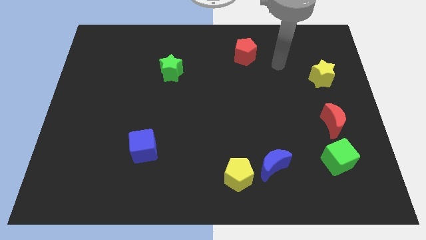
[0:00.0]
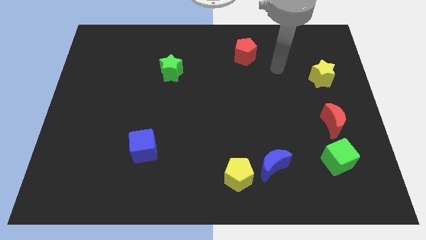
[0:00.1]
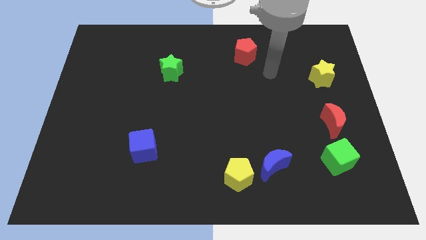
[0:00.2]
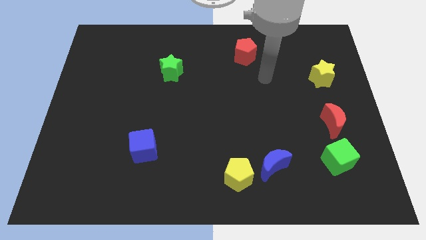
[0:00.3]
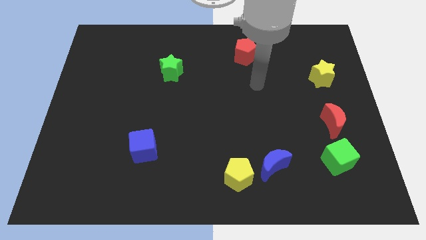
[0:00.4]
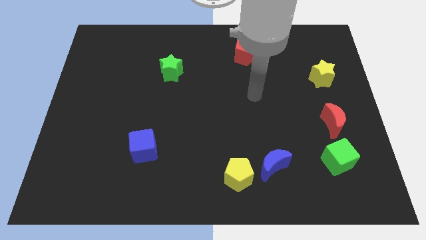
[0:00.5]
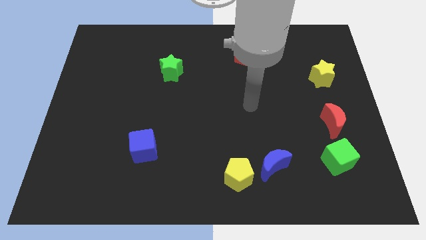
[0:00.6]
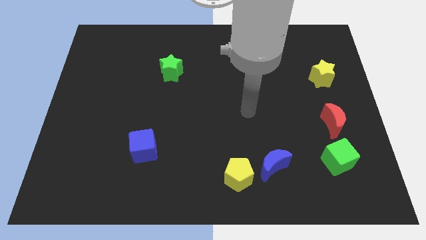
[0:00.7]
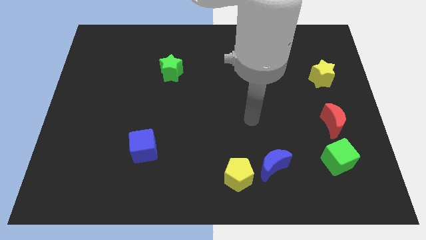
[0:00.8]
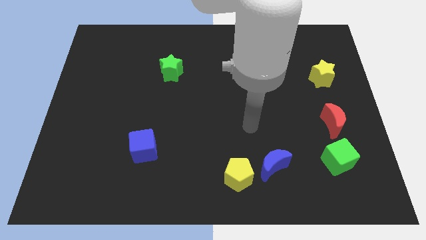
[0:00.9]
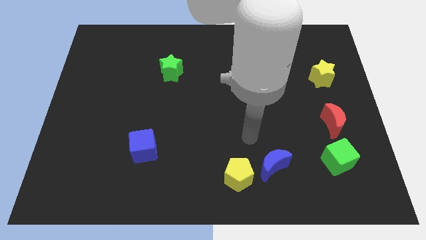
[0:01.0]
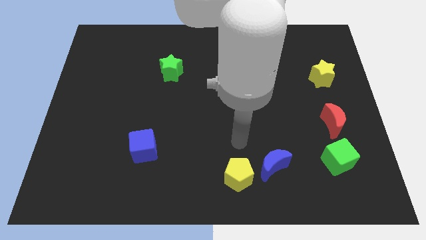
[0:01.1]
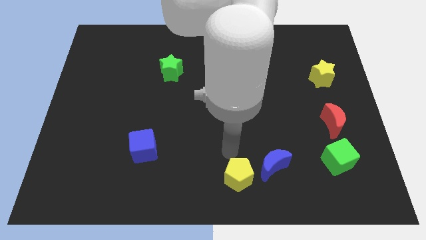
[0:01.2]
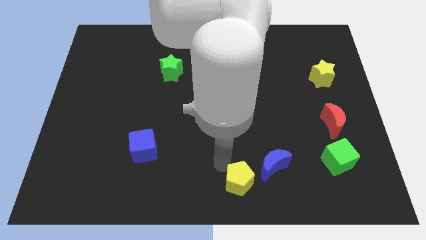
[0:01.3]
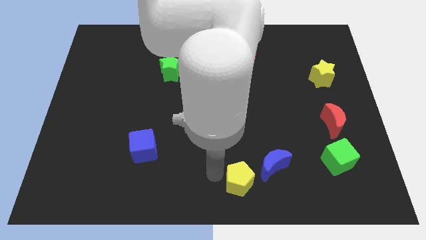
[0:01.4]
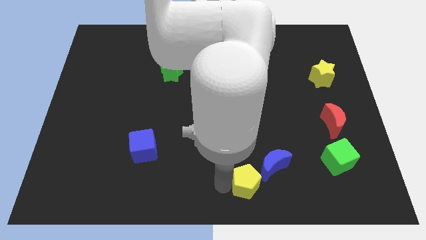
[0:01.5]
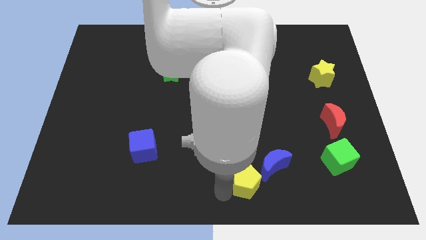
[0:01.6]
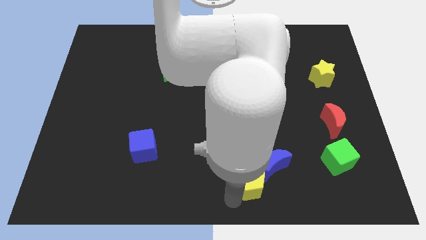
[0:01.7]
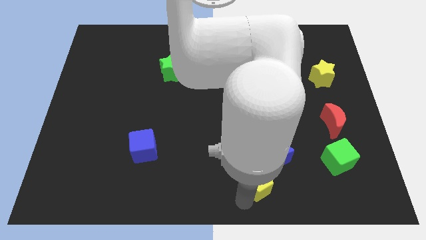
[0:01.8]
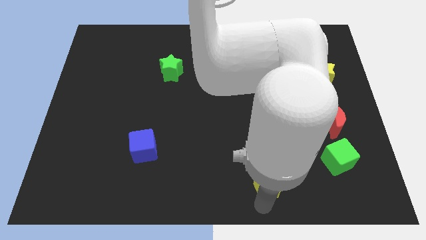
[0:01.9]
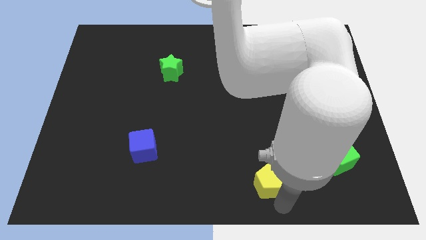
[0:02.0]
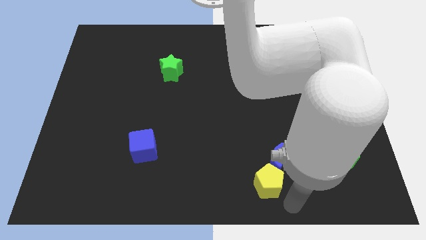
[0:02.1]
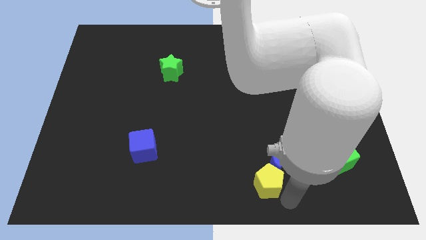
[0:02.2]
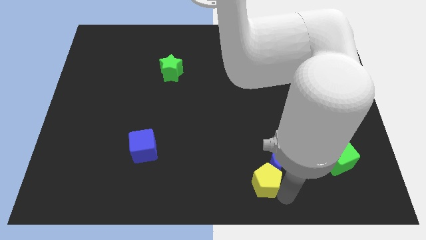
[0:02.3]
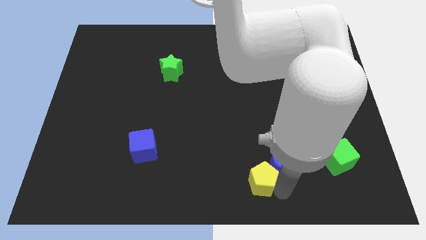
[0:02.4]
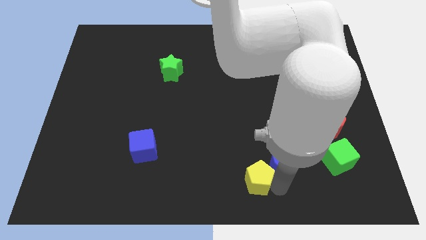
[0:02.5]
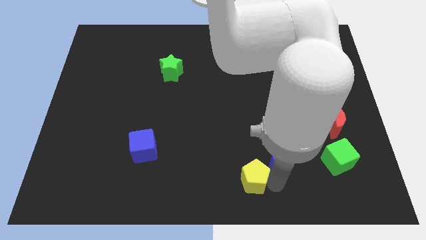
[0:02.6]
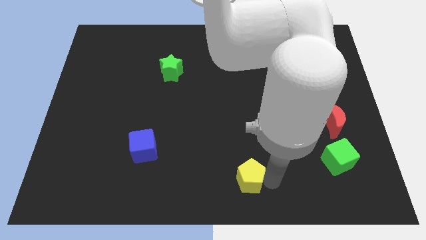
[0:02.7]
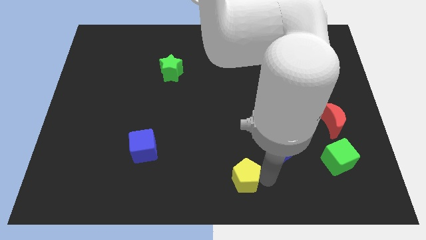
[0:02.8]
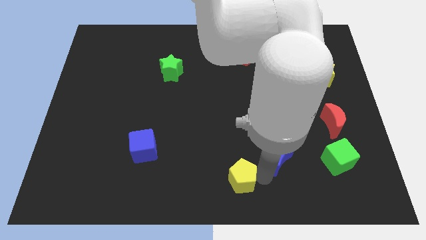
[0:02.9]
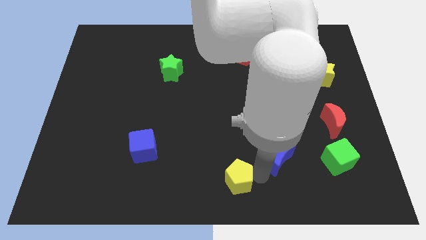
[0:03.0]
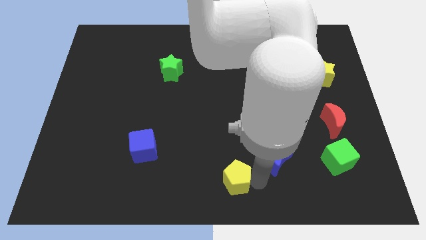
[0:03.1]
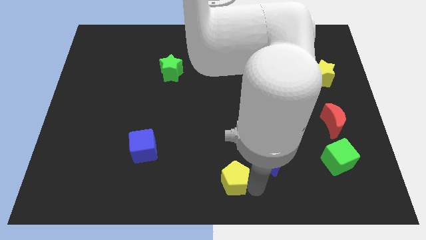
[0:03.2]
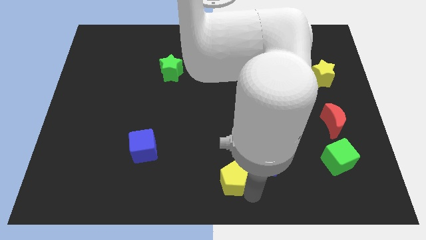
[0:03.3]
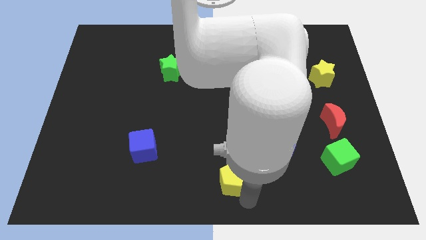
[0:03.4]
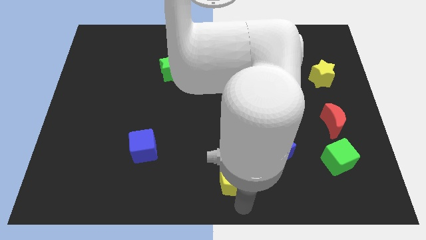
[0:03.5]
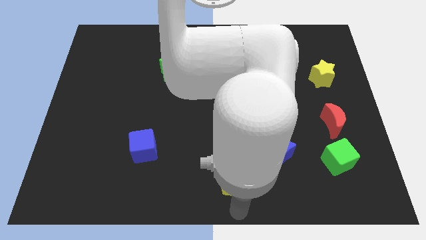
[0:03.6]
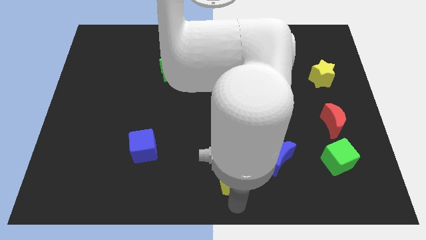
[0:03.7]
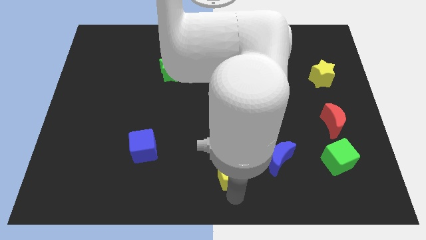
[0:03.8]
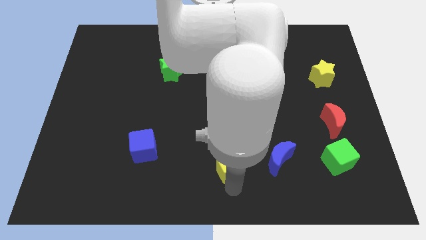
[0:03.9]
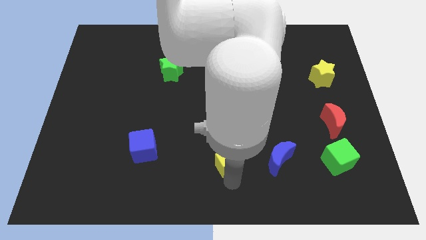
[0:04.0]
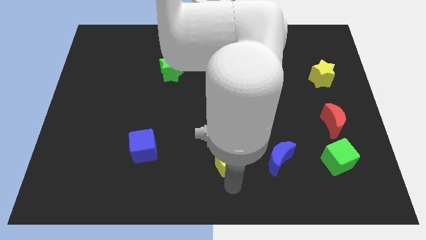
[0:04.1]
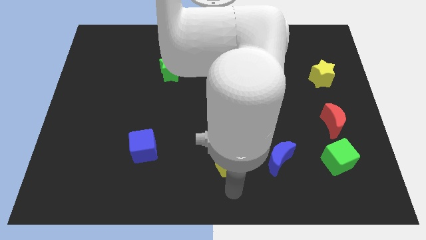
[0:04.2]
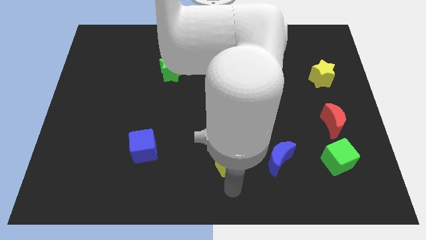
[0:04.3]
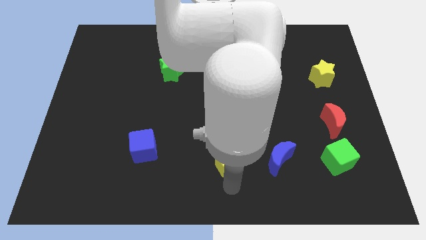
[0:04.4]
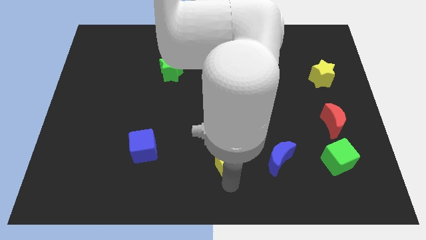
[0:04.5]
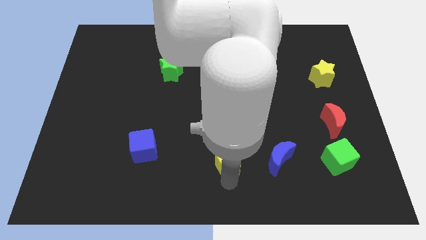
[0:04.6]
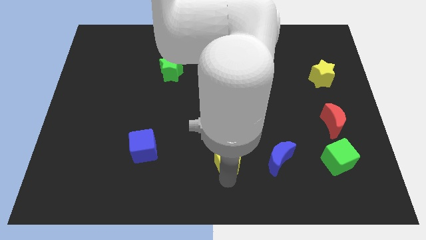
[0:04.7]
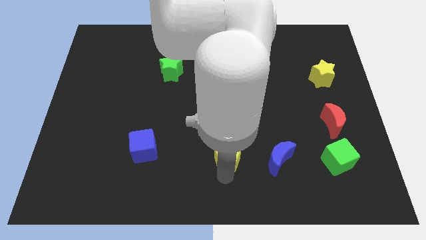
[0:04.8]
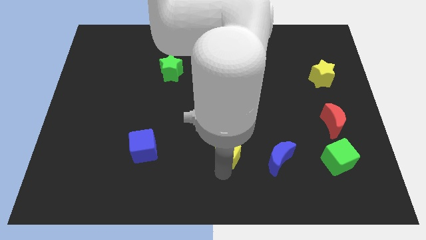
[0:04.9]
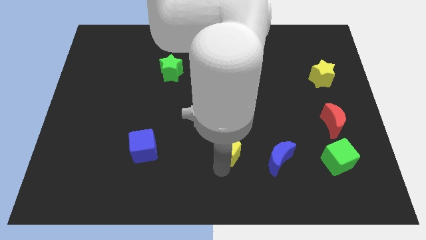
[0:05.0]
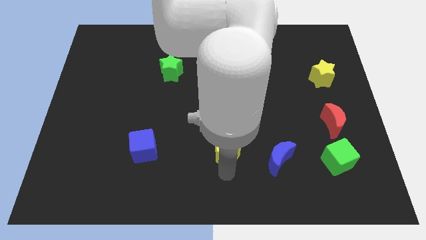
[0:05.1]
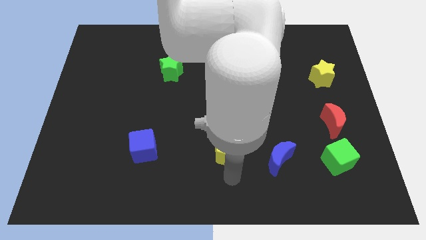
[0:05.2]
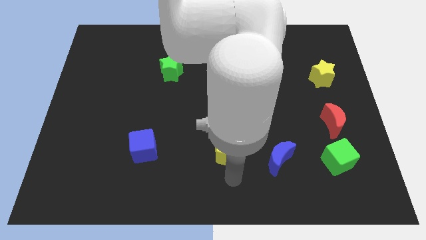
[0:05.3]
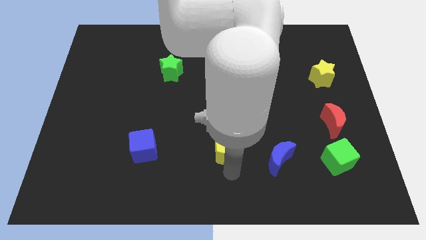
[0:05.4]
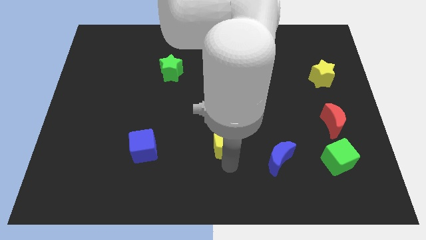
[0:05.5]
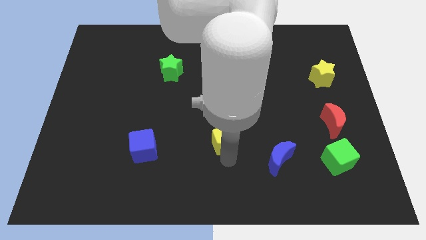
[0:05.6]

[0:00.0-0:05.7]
slide the yellow pentagon to the middle of the board
